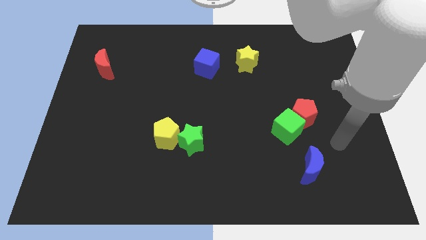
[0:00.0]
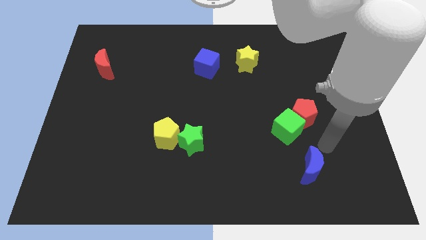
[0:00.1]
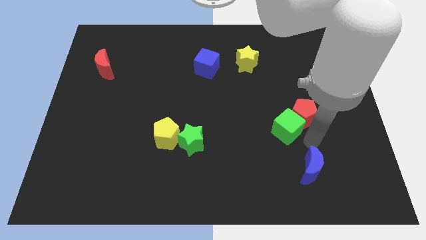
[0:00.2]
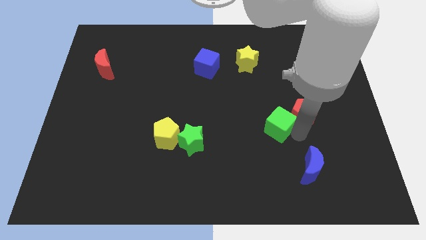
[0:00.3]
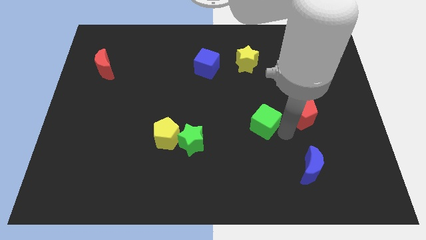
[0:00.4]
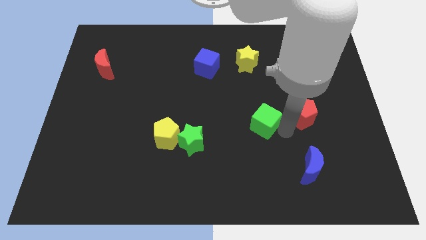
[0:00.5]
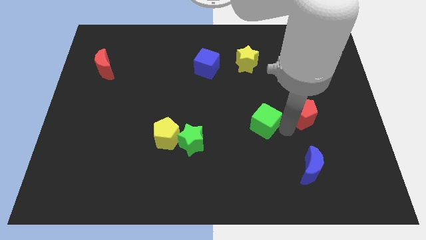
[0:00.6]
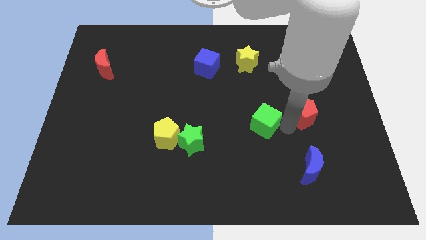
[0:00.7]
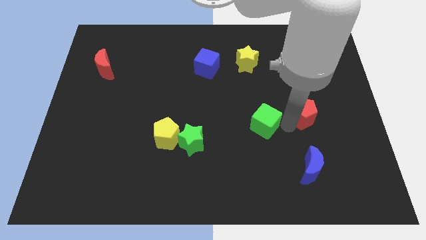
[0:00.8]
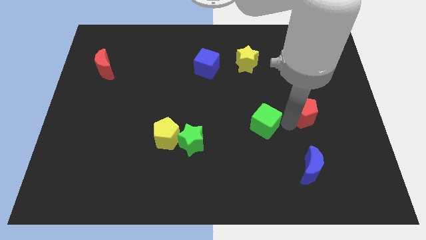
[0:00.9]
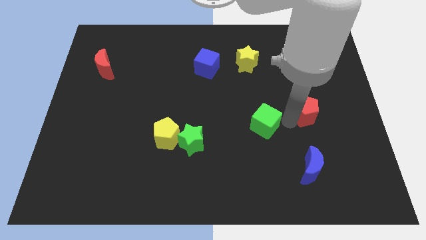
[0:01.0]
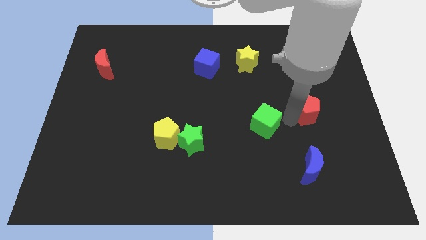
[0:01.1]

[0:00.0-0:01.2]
pull the red pentagon apart from the green cube

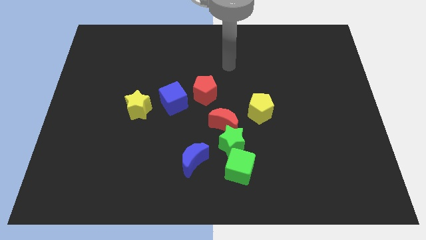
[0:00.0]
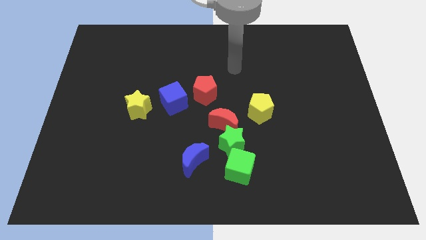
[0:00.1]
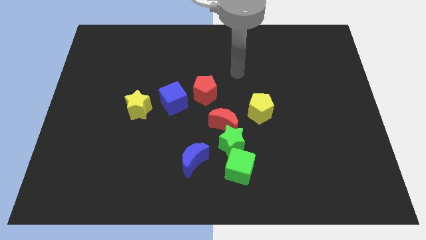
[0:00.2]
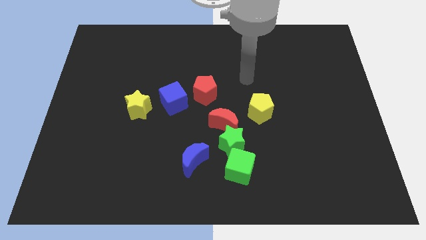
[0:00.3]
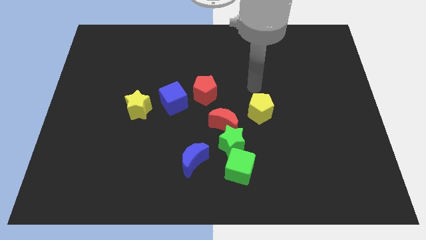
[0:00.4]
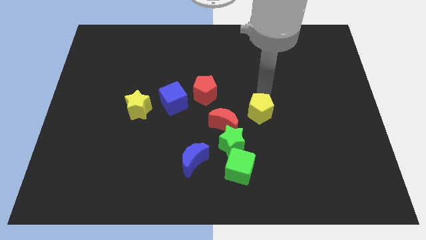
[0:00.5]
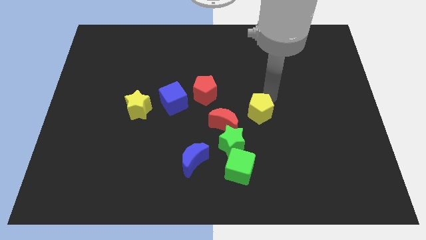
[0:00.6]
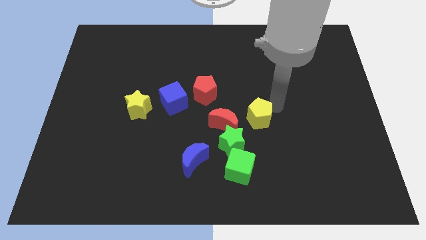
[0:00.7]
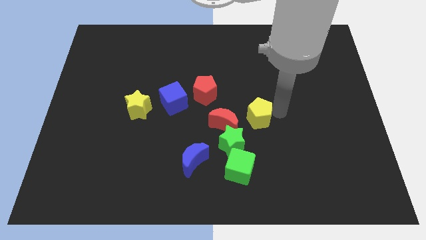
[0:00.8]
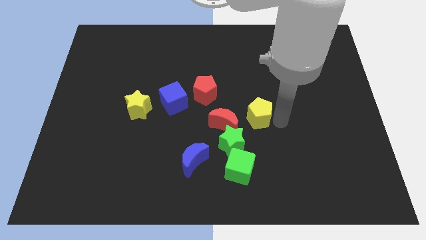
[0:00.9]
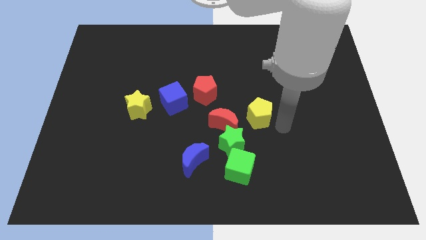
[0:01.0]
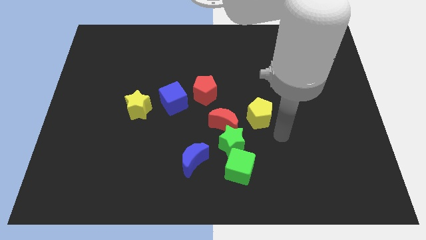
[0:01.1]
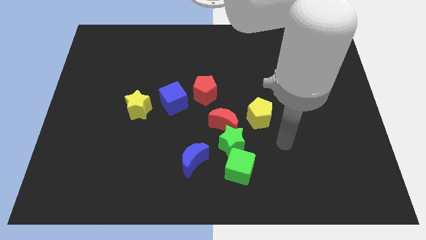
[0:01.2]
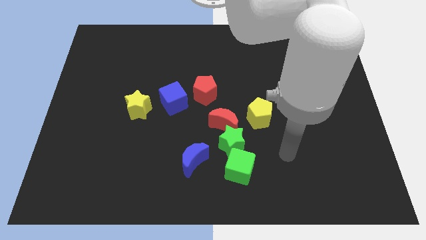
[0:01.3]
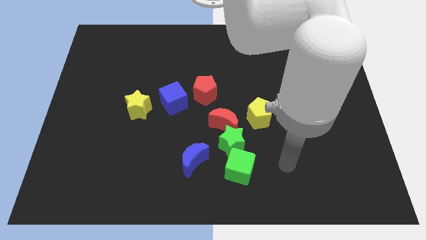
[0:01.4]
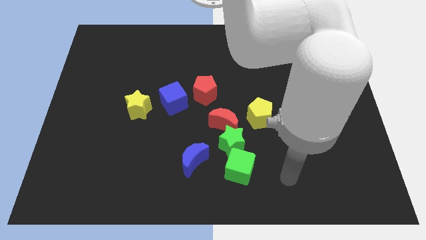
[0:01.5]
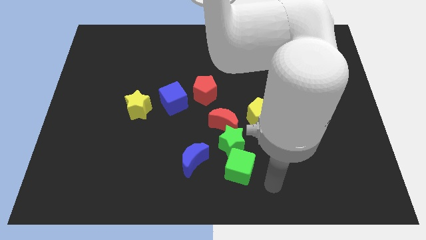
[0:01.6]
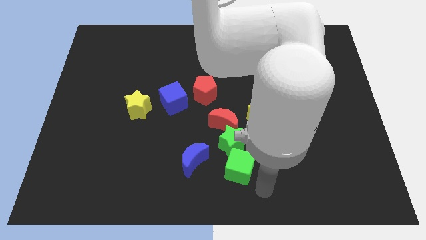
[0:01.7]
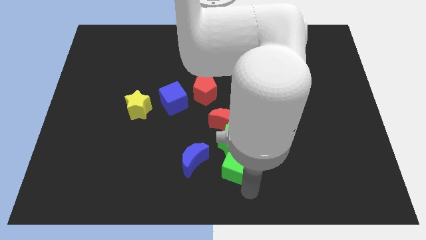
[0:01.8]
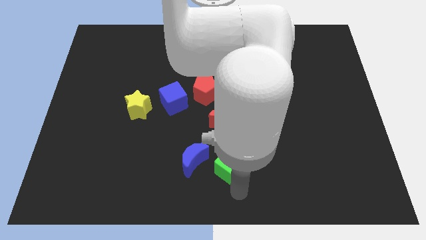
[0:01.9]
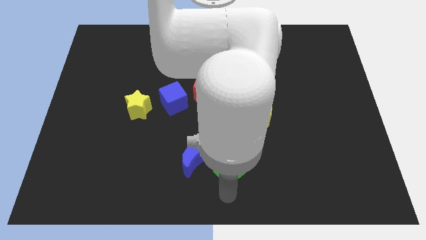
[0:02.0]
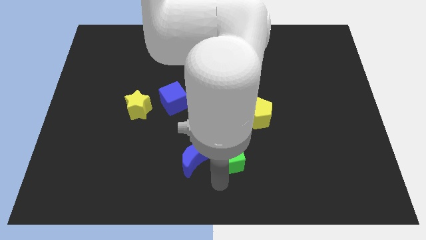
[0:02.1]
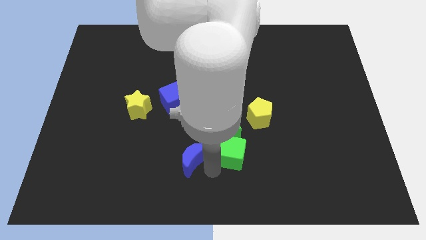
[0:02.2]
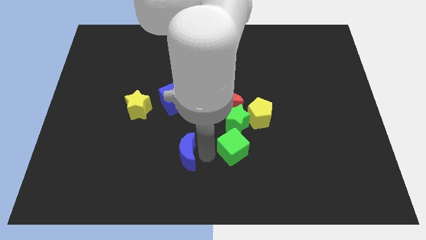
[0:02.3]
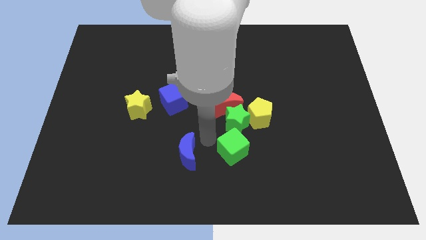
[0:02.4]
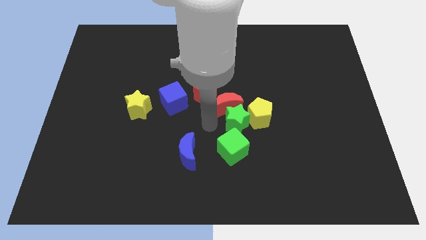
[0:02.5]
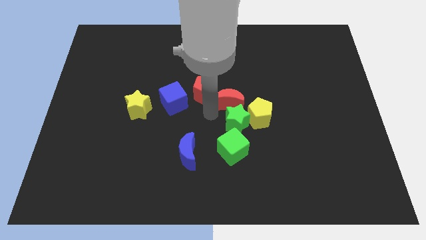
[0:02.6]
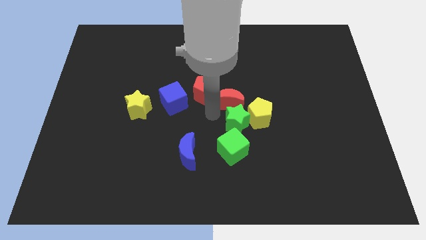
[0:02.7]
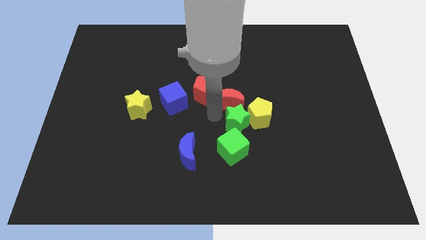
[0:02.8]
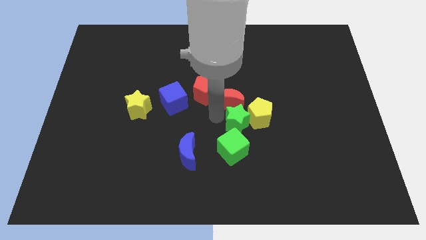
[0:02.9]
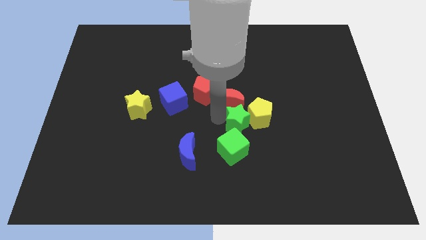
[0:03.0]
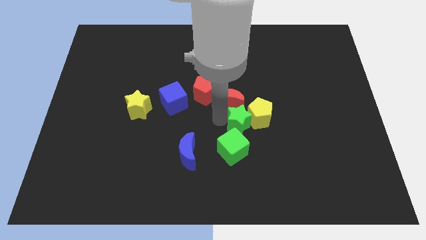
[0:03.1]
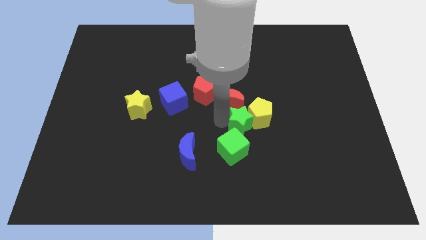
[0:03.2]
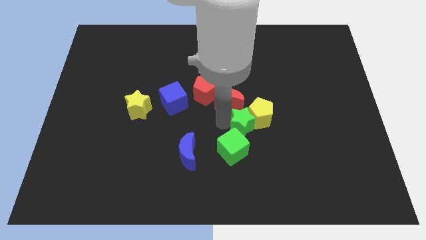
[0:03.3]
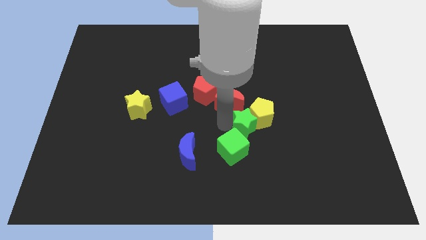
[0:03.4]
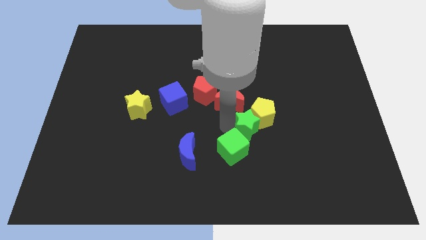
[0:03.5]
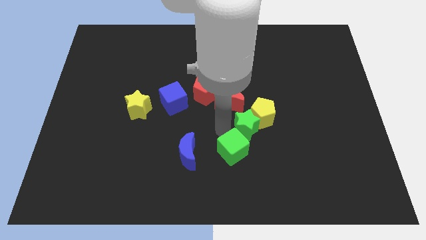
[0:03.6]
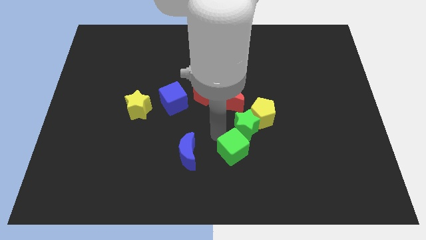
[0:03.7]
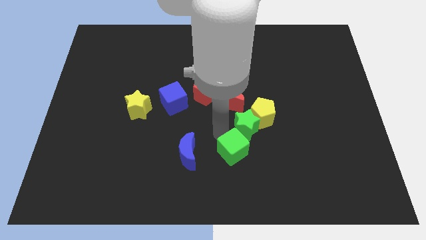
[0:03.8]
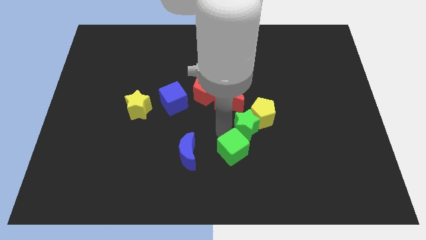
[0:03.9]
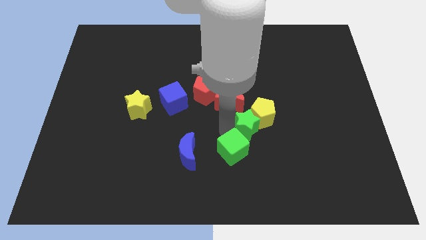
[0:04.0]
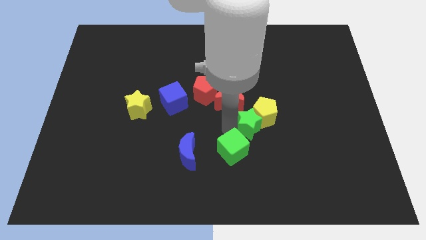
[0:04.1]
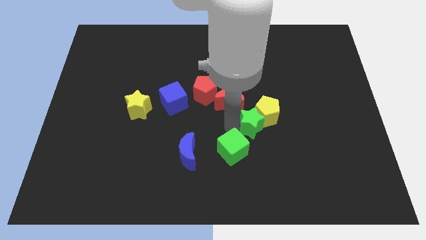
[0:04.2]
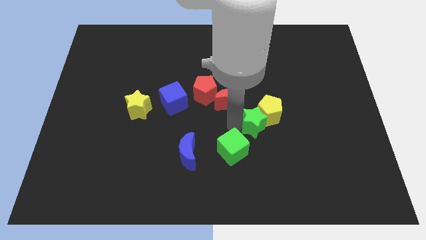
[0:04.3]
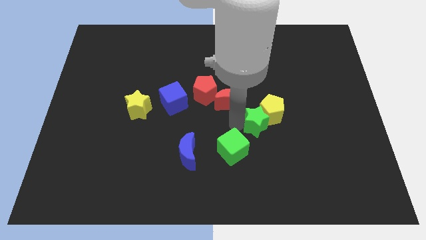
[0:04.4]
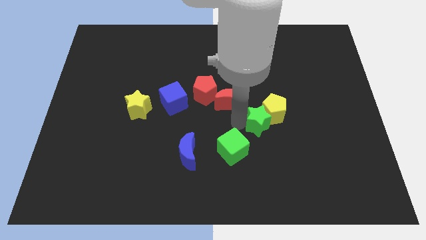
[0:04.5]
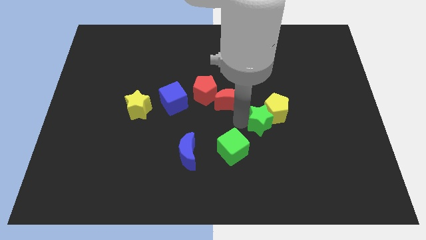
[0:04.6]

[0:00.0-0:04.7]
move the green star away from the group

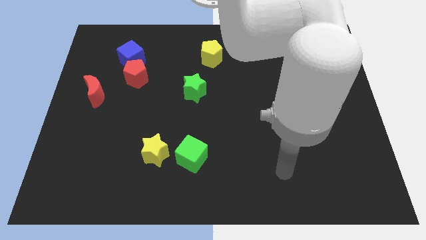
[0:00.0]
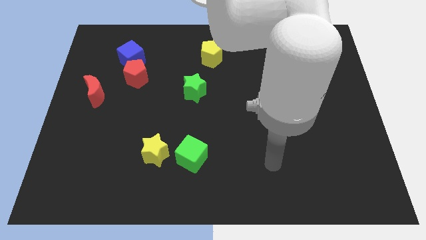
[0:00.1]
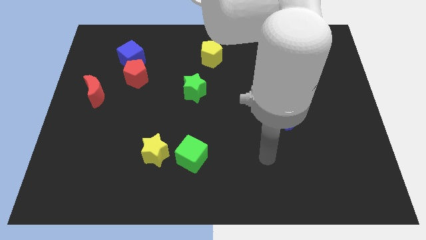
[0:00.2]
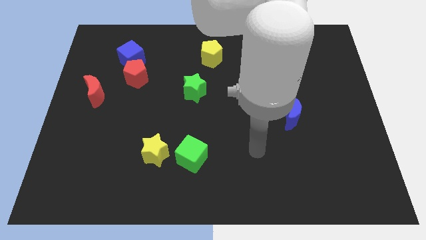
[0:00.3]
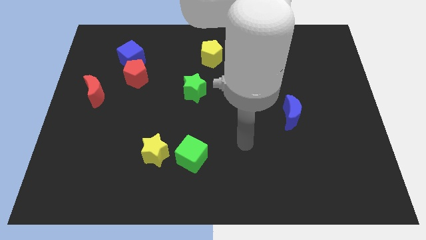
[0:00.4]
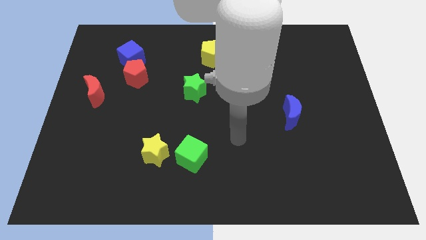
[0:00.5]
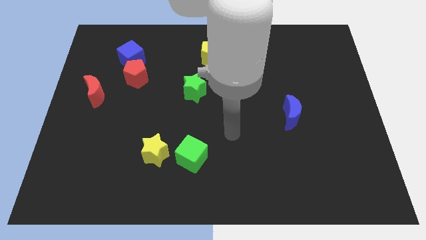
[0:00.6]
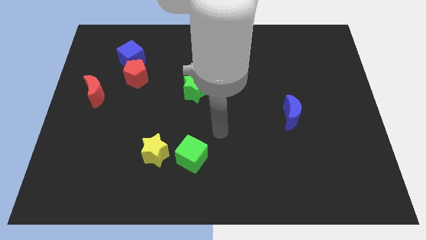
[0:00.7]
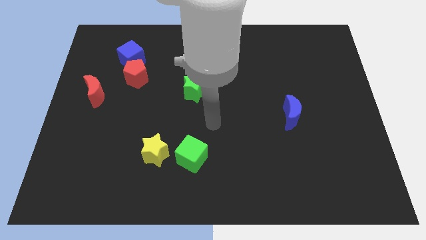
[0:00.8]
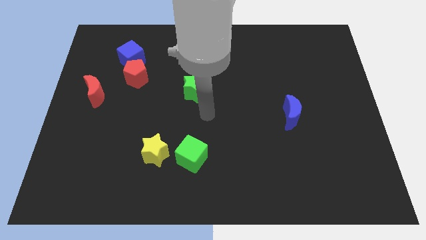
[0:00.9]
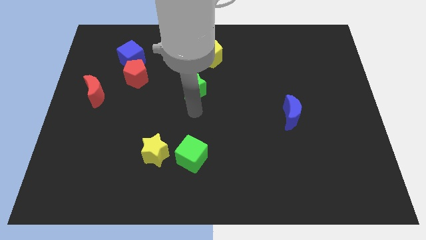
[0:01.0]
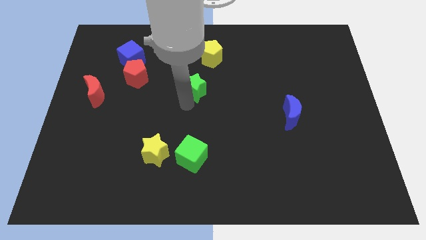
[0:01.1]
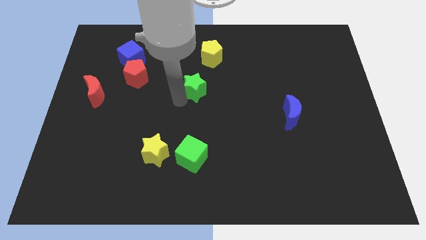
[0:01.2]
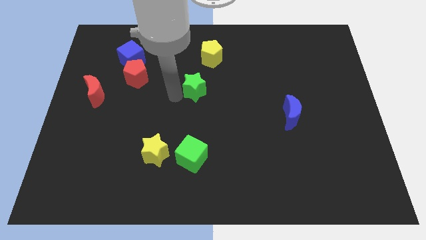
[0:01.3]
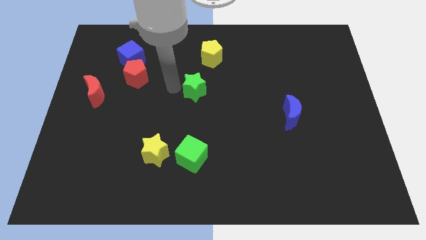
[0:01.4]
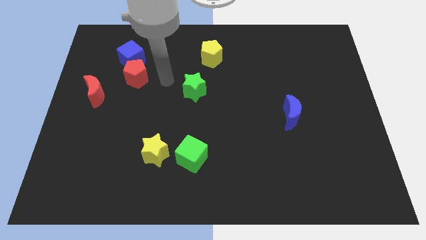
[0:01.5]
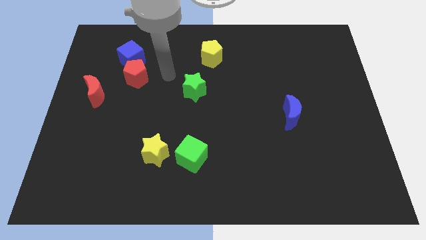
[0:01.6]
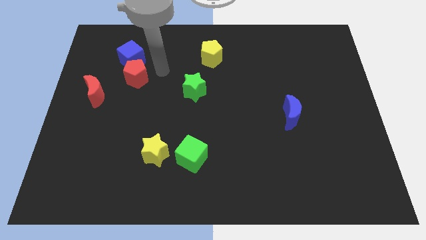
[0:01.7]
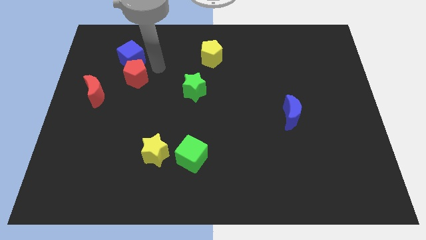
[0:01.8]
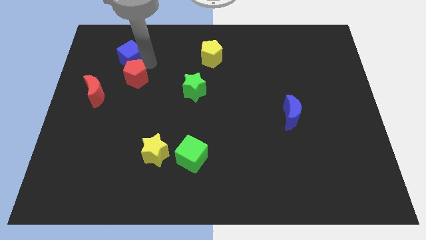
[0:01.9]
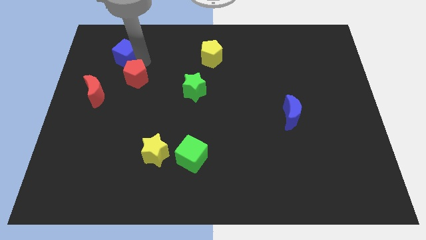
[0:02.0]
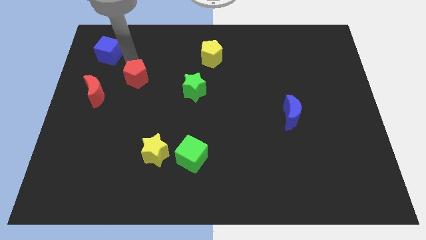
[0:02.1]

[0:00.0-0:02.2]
pull the red pentagon apart from the blue cube

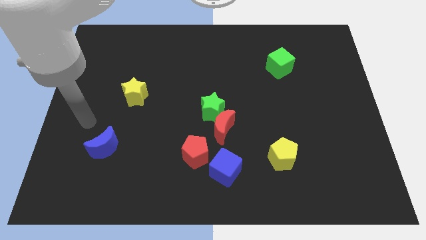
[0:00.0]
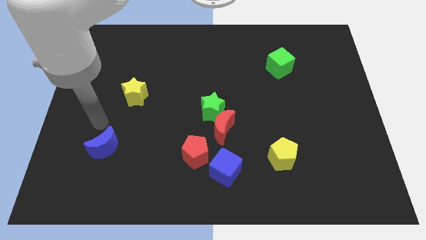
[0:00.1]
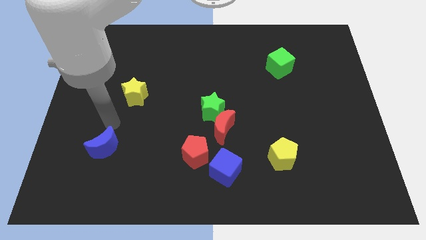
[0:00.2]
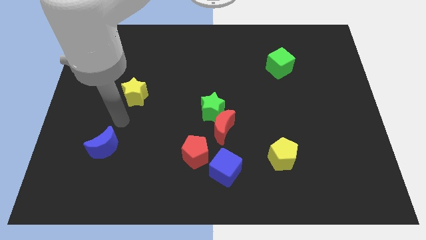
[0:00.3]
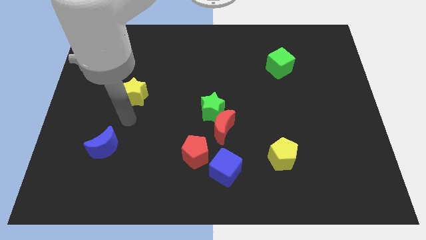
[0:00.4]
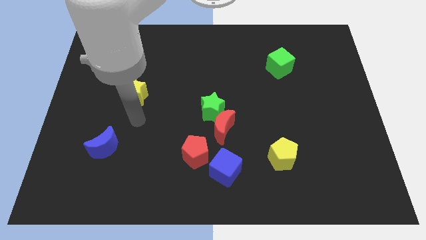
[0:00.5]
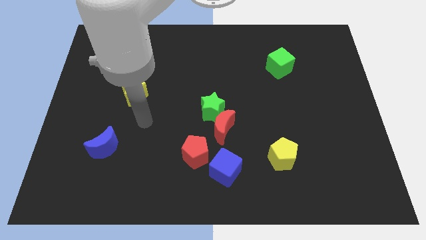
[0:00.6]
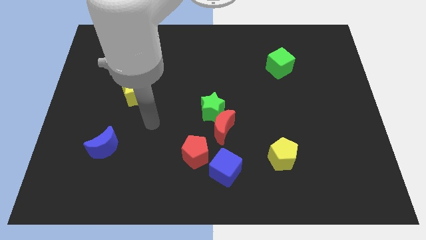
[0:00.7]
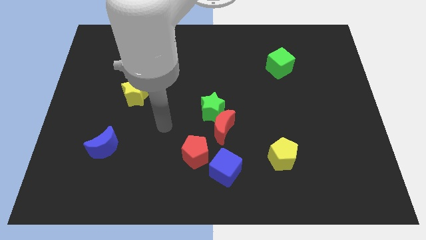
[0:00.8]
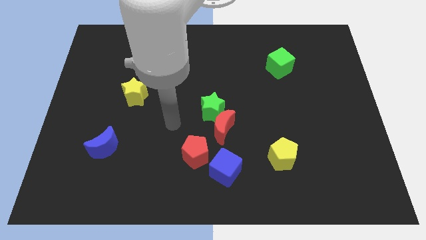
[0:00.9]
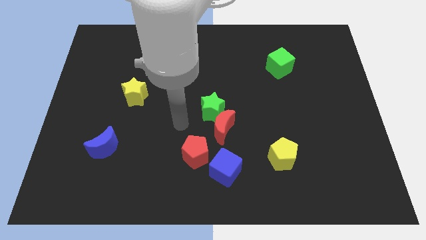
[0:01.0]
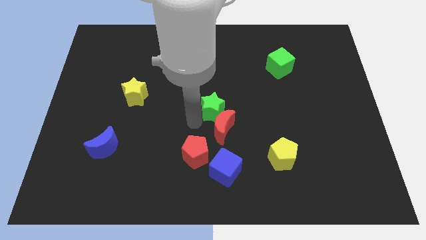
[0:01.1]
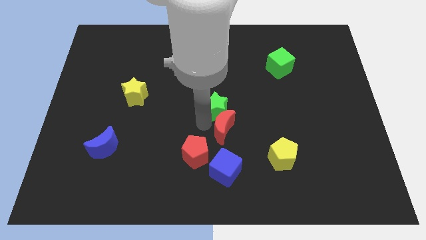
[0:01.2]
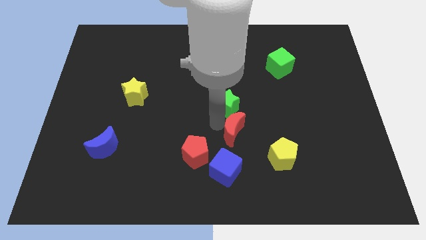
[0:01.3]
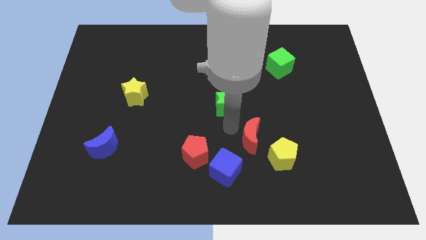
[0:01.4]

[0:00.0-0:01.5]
pull the green star apart from the red moon
